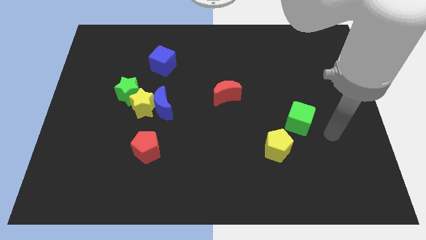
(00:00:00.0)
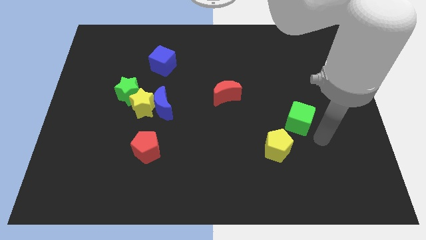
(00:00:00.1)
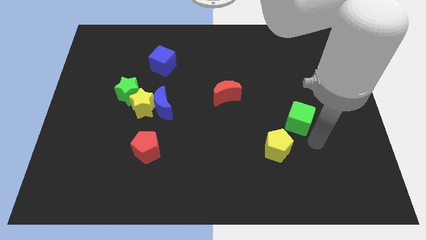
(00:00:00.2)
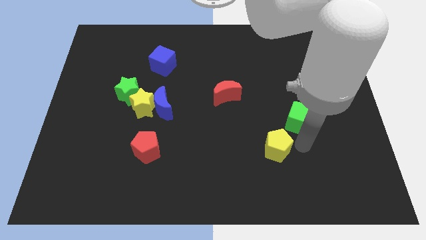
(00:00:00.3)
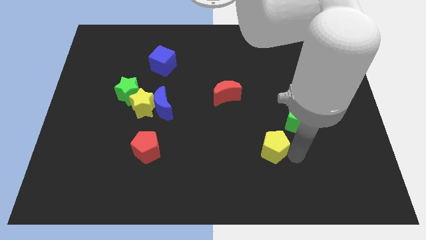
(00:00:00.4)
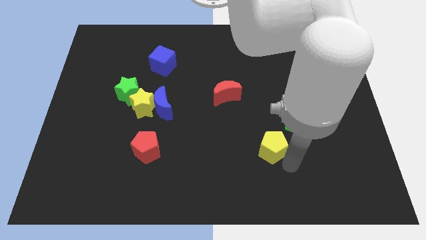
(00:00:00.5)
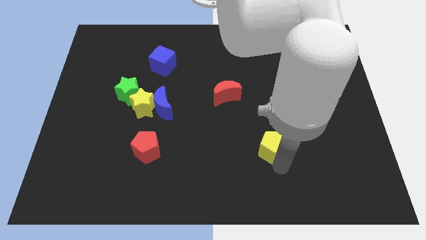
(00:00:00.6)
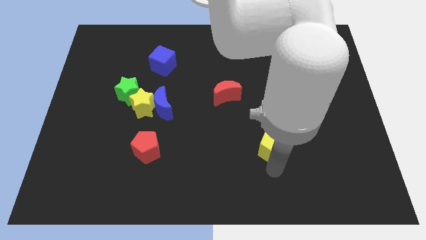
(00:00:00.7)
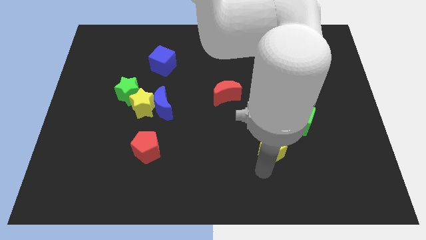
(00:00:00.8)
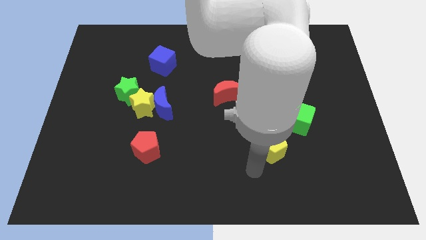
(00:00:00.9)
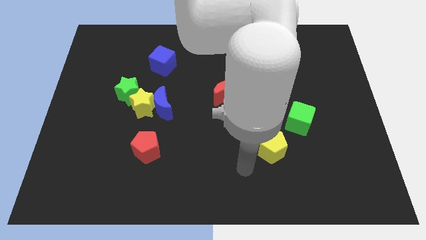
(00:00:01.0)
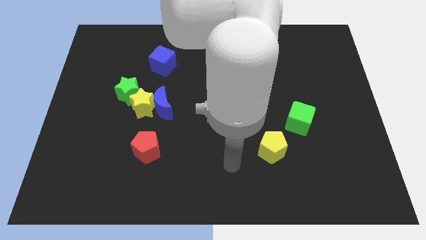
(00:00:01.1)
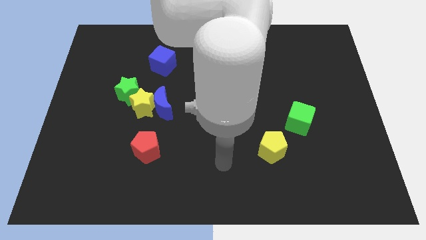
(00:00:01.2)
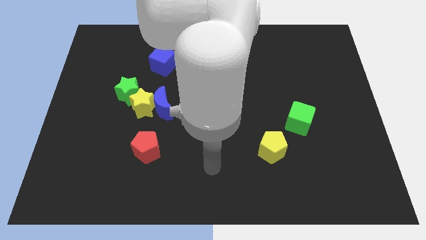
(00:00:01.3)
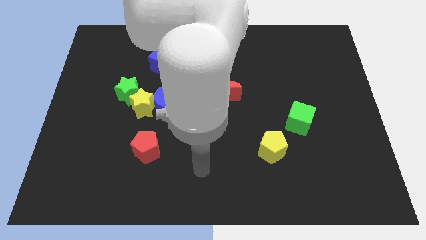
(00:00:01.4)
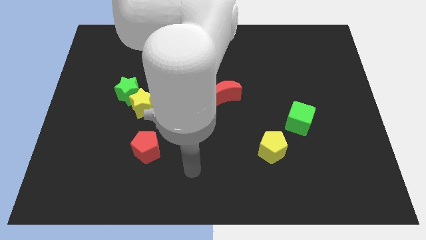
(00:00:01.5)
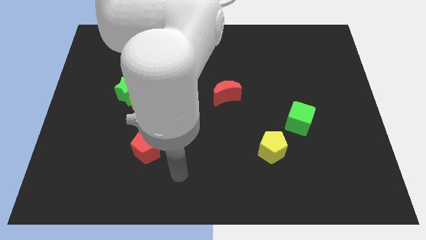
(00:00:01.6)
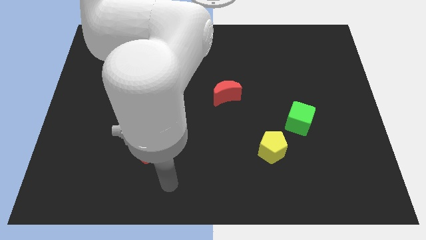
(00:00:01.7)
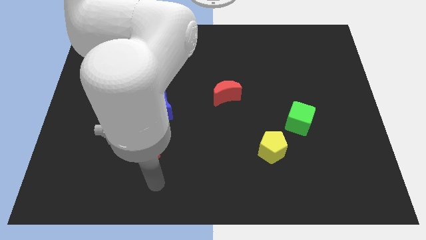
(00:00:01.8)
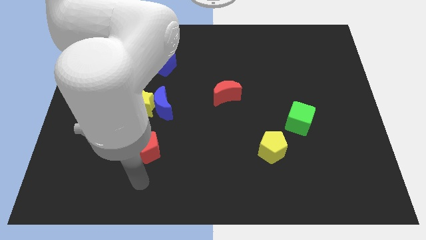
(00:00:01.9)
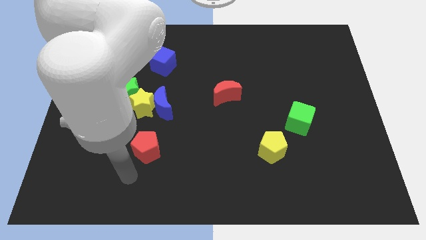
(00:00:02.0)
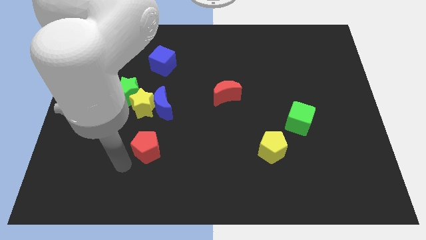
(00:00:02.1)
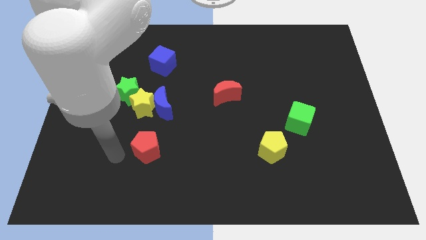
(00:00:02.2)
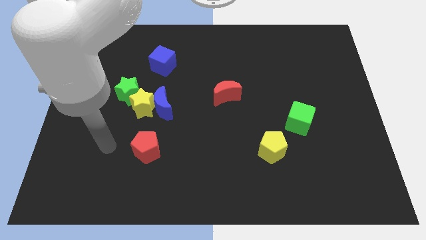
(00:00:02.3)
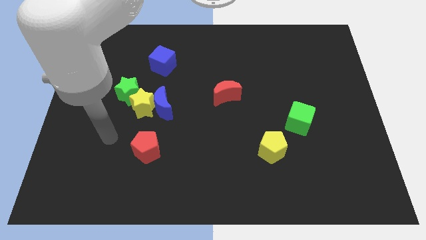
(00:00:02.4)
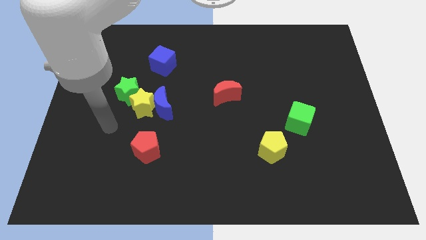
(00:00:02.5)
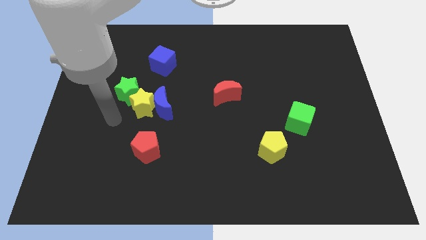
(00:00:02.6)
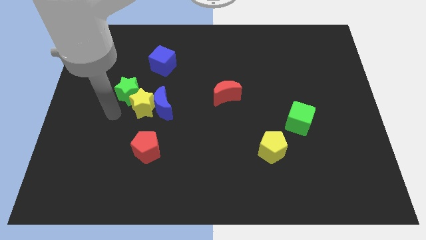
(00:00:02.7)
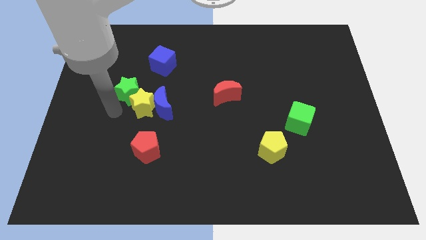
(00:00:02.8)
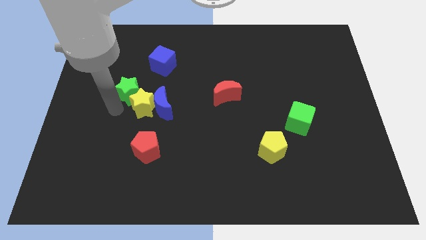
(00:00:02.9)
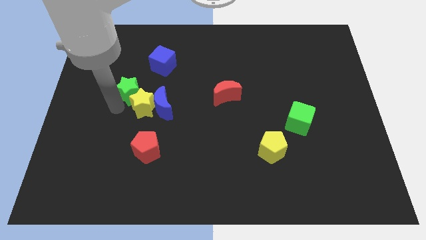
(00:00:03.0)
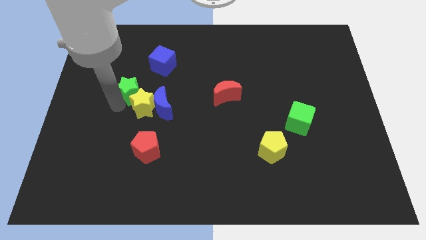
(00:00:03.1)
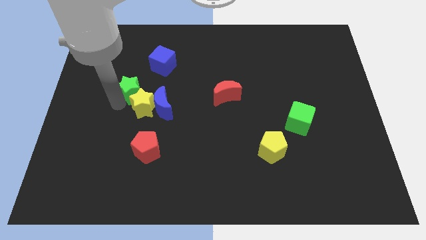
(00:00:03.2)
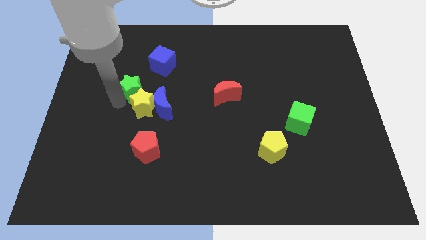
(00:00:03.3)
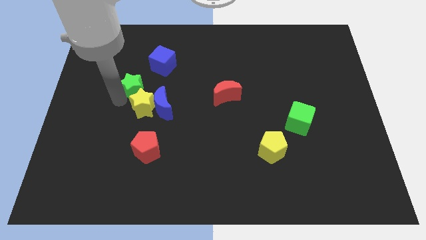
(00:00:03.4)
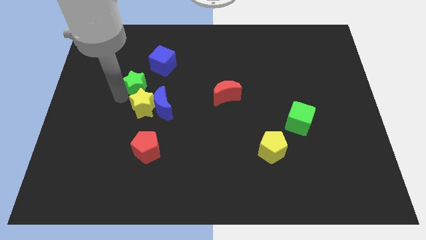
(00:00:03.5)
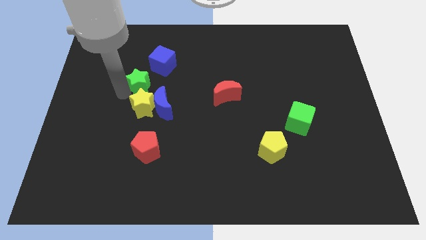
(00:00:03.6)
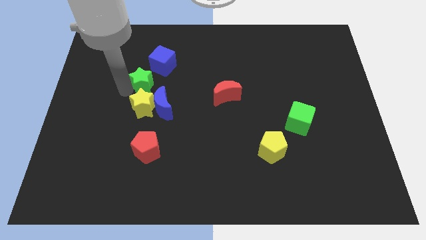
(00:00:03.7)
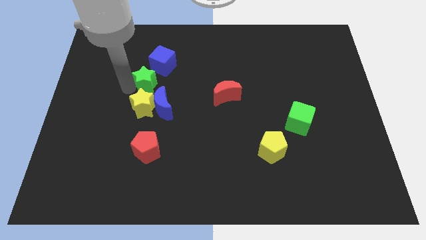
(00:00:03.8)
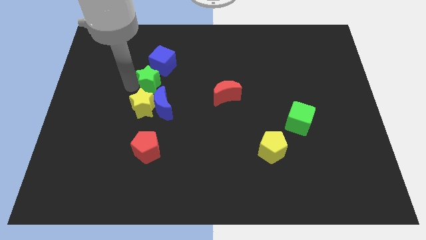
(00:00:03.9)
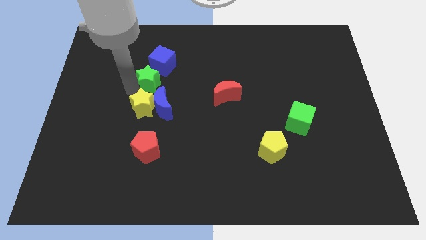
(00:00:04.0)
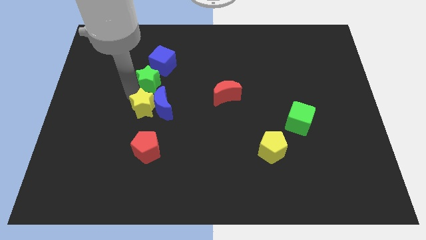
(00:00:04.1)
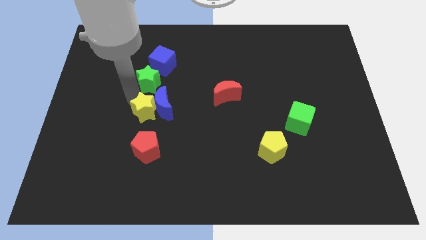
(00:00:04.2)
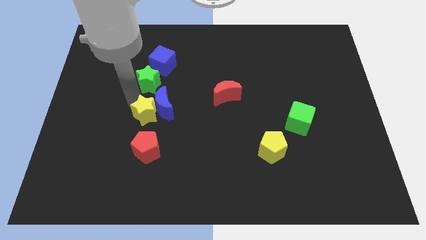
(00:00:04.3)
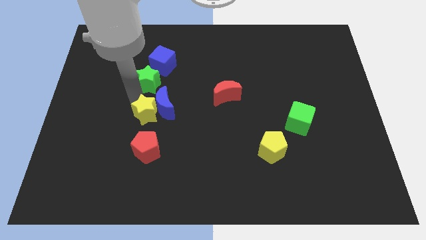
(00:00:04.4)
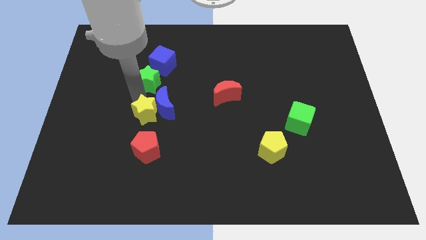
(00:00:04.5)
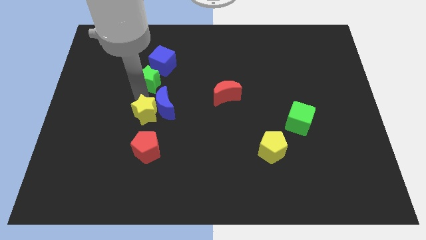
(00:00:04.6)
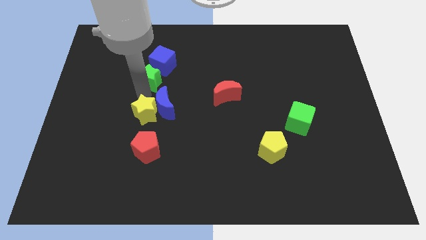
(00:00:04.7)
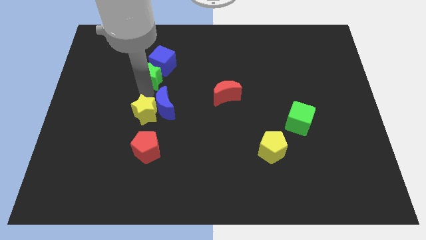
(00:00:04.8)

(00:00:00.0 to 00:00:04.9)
push the green star towards the blue cube

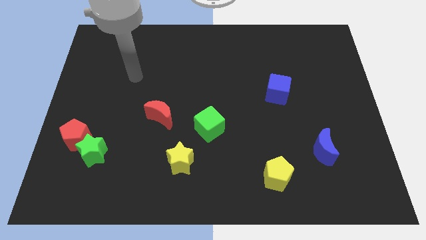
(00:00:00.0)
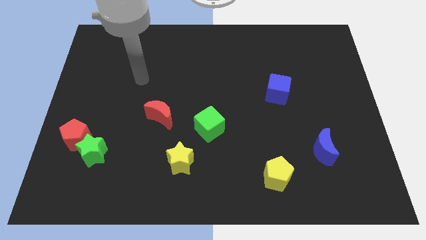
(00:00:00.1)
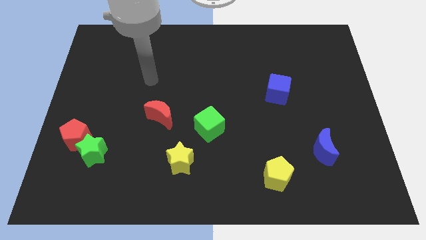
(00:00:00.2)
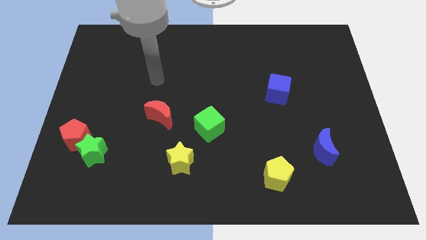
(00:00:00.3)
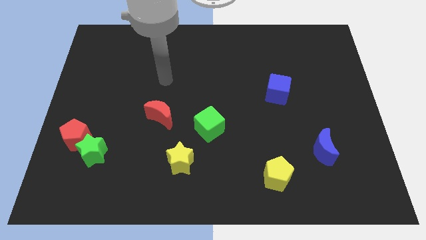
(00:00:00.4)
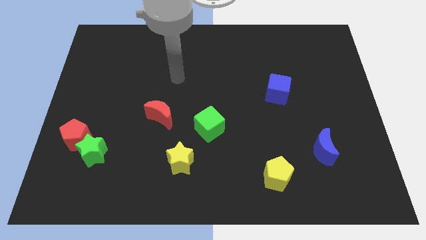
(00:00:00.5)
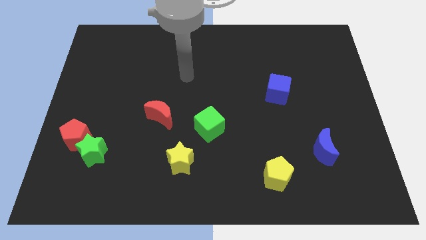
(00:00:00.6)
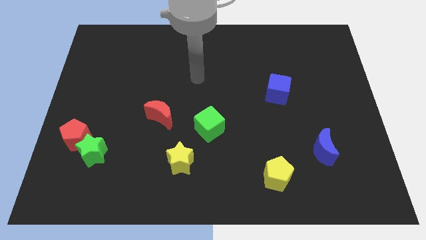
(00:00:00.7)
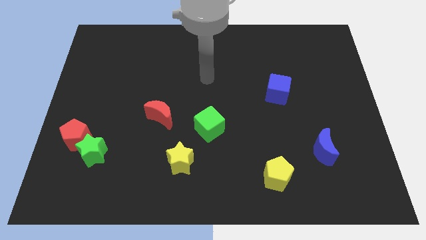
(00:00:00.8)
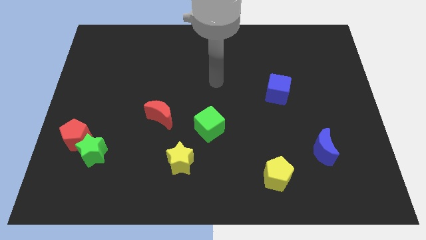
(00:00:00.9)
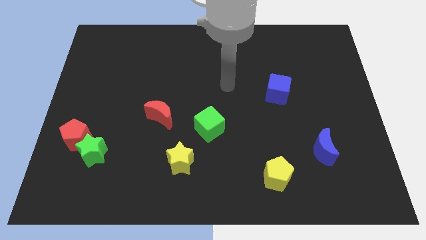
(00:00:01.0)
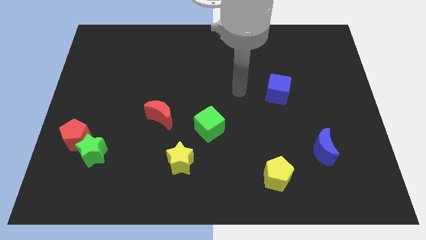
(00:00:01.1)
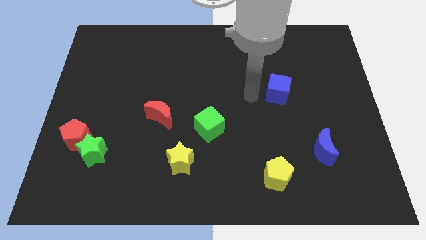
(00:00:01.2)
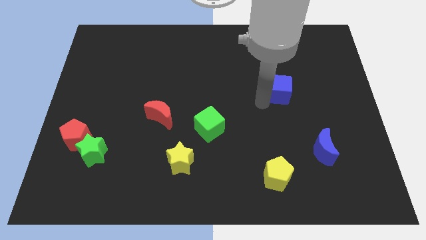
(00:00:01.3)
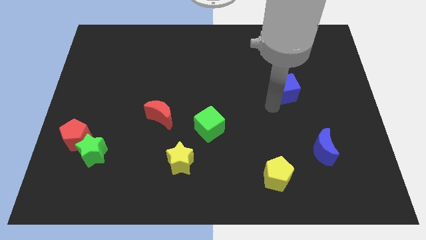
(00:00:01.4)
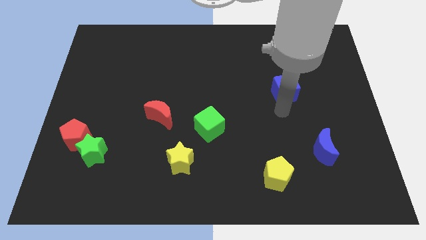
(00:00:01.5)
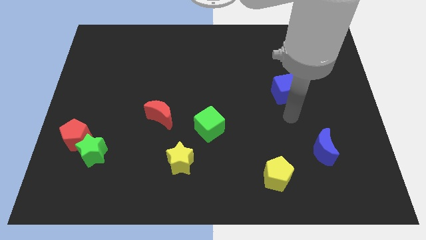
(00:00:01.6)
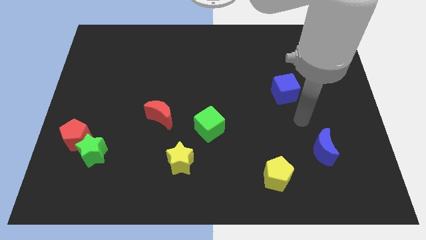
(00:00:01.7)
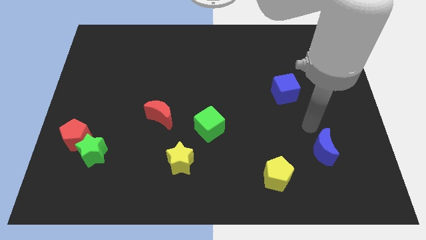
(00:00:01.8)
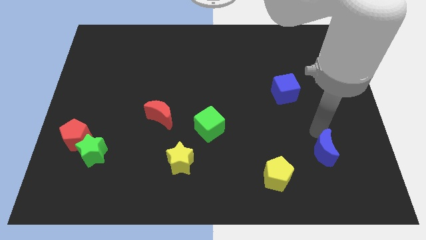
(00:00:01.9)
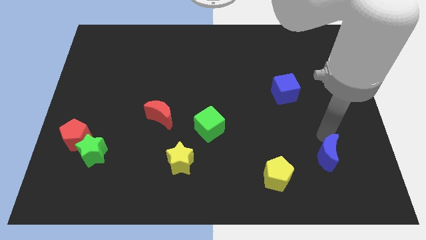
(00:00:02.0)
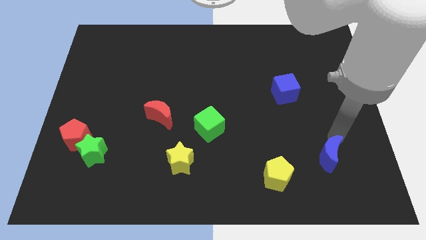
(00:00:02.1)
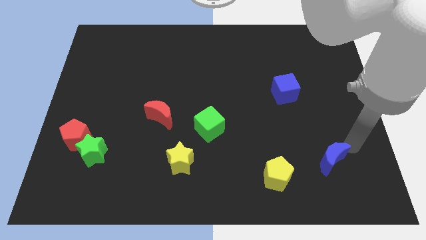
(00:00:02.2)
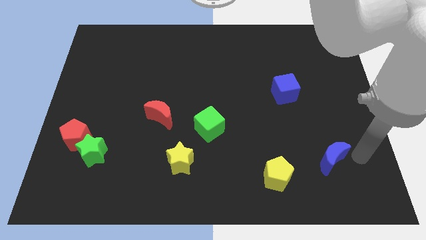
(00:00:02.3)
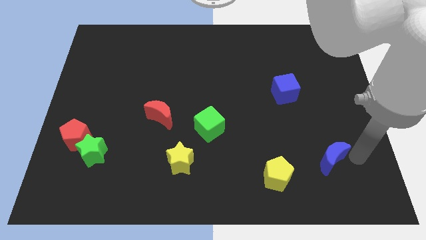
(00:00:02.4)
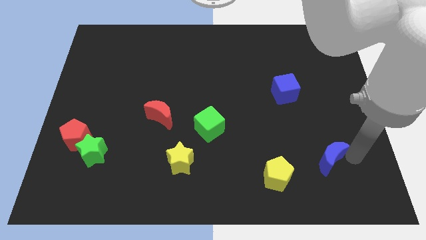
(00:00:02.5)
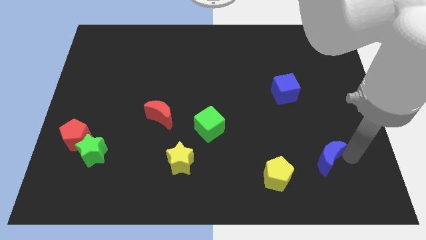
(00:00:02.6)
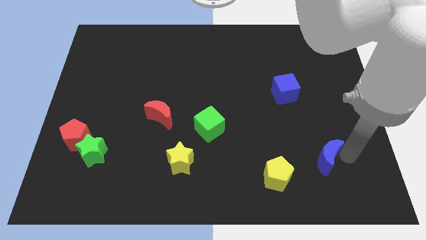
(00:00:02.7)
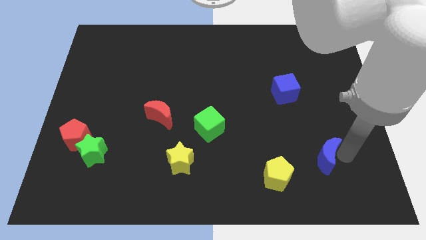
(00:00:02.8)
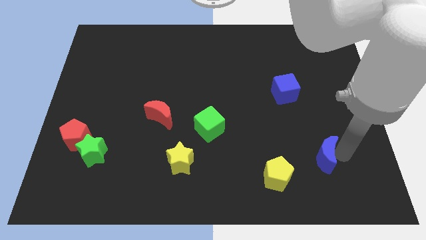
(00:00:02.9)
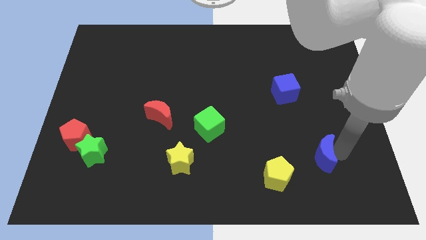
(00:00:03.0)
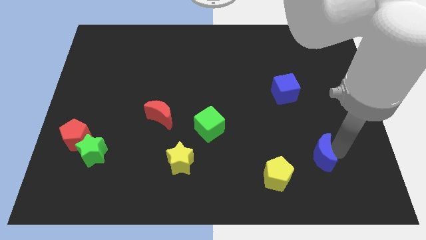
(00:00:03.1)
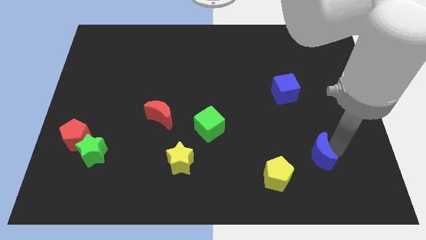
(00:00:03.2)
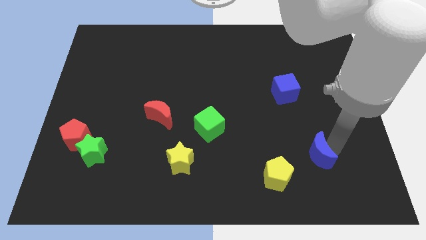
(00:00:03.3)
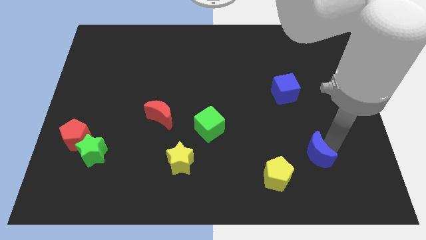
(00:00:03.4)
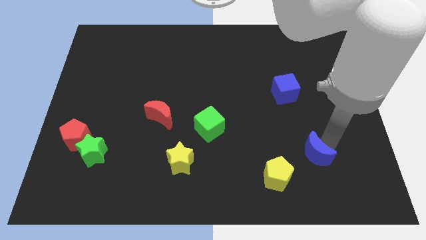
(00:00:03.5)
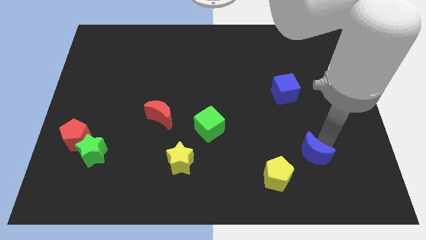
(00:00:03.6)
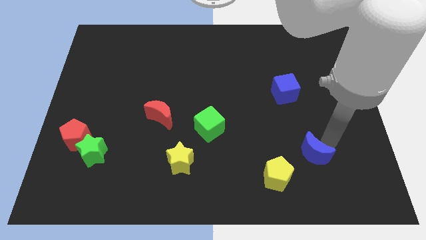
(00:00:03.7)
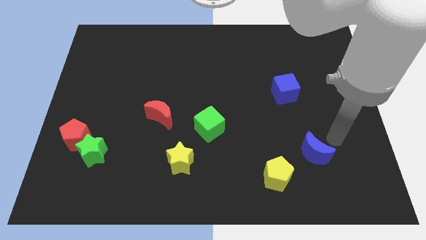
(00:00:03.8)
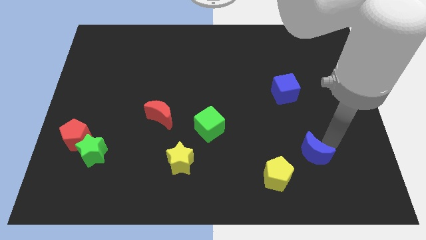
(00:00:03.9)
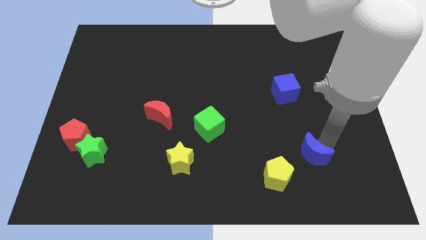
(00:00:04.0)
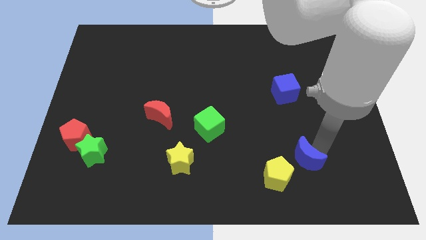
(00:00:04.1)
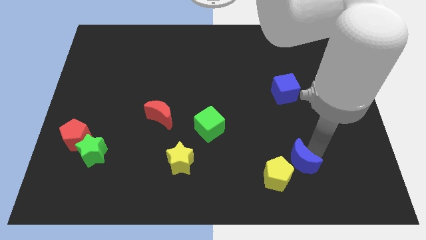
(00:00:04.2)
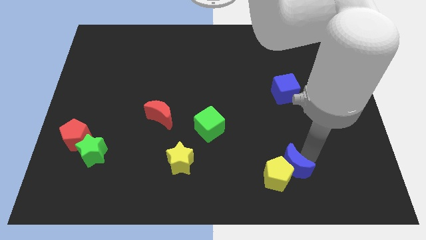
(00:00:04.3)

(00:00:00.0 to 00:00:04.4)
put the blue moon to the yellow pentagon
